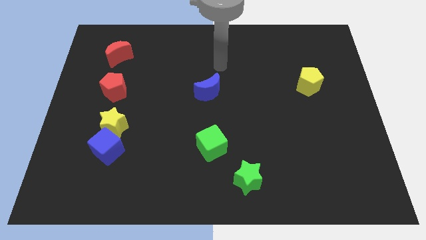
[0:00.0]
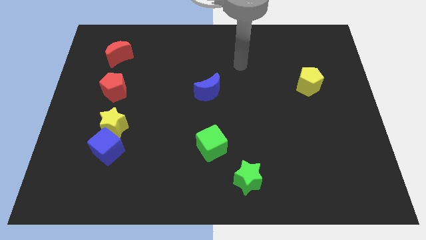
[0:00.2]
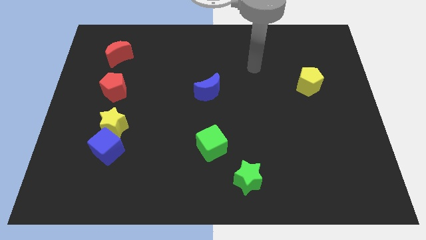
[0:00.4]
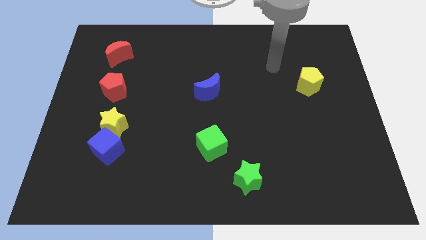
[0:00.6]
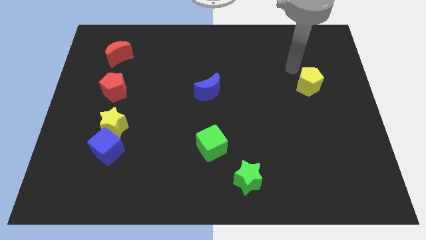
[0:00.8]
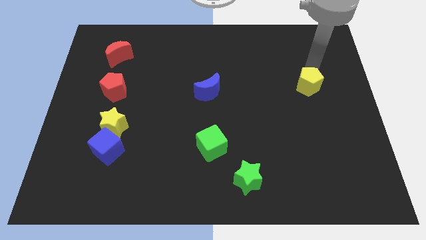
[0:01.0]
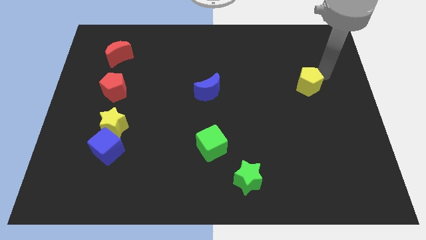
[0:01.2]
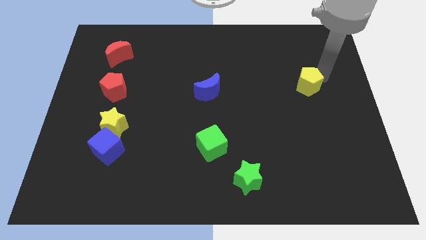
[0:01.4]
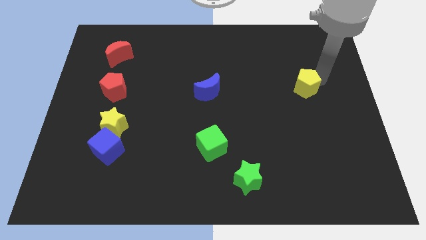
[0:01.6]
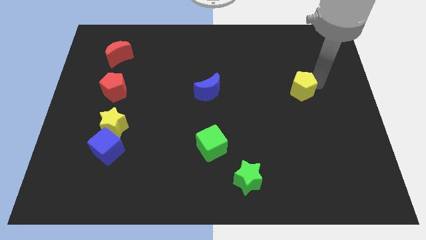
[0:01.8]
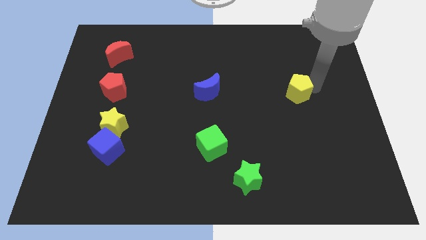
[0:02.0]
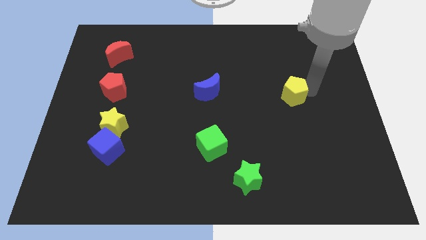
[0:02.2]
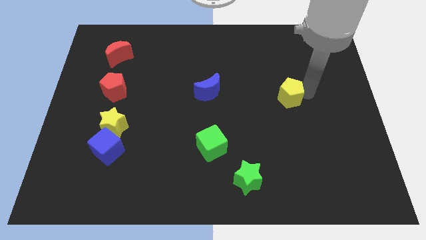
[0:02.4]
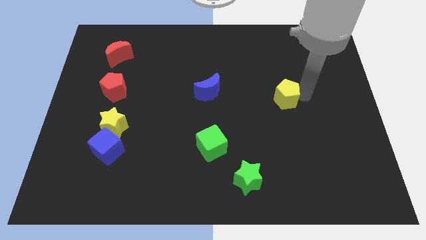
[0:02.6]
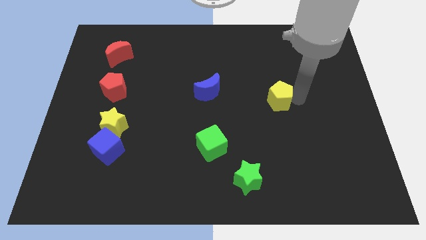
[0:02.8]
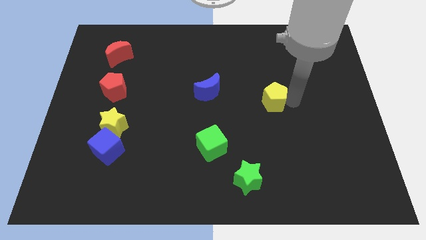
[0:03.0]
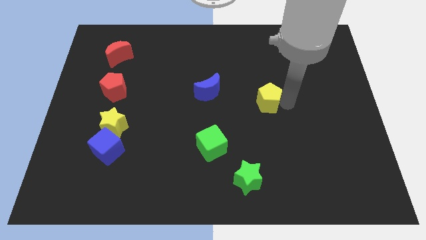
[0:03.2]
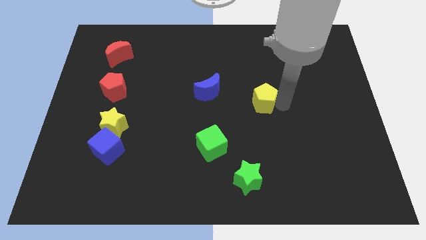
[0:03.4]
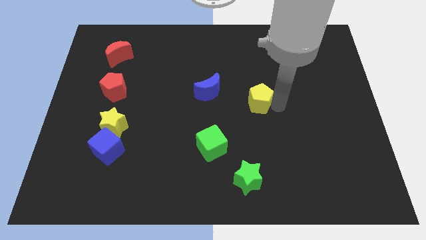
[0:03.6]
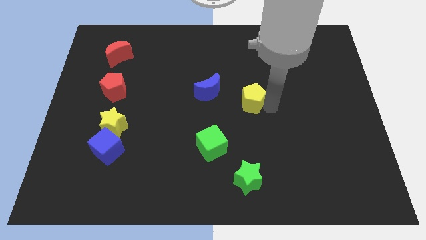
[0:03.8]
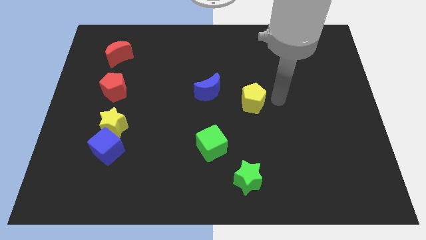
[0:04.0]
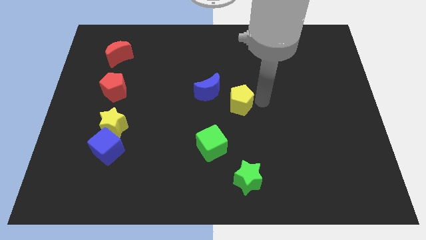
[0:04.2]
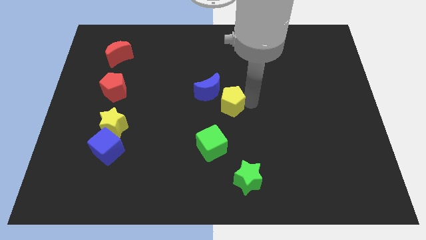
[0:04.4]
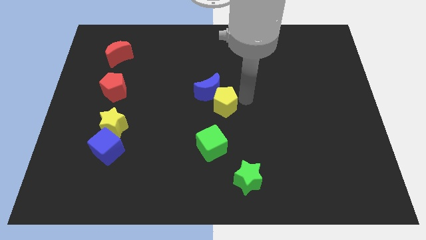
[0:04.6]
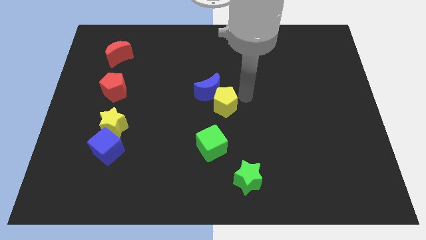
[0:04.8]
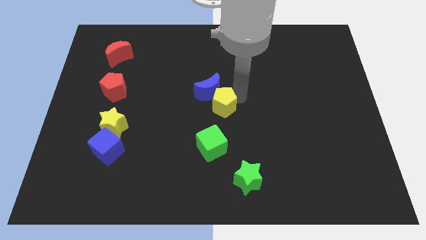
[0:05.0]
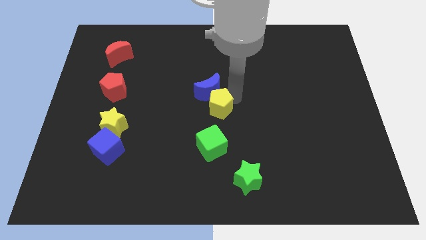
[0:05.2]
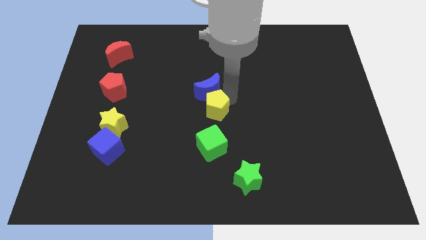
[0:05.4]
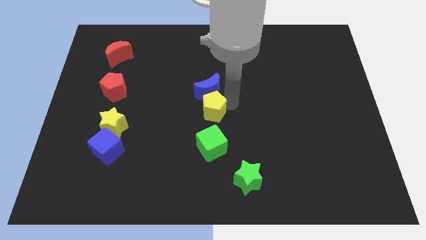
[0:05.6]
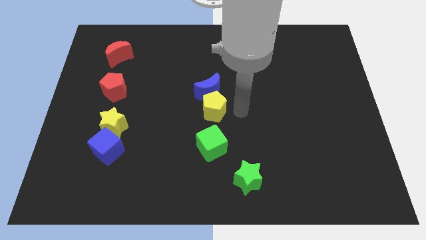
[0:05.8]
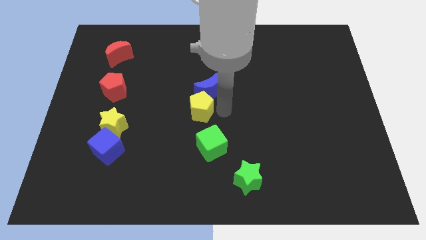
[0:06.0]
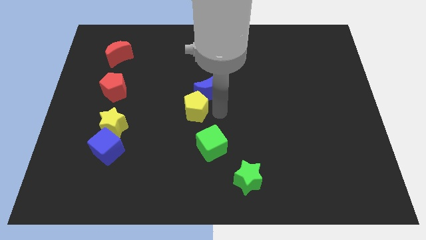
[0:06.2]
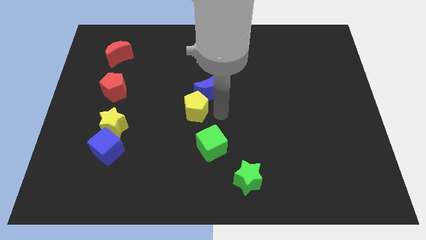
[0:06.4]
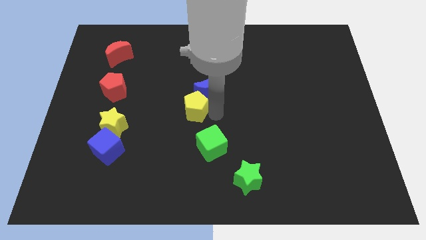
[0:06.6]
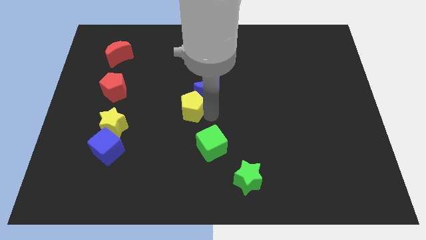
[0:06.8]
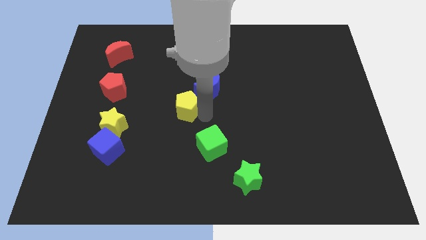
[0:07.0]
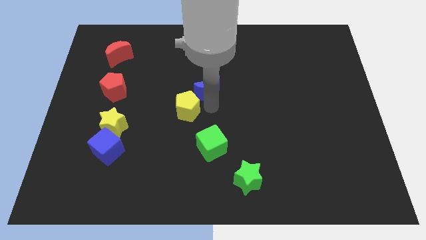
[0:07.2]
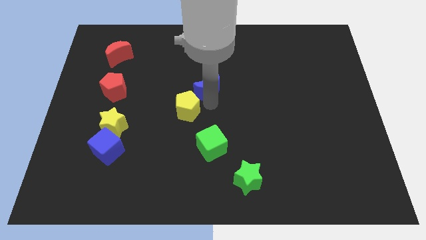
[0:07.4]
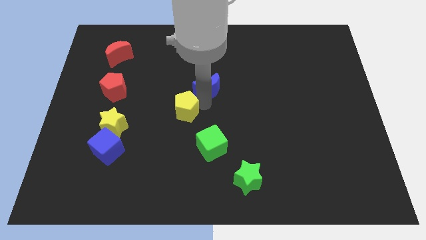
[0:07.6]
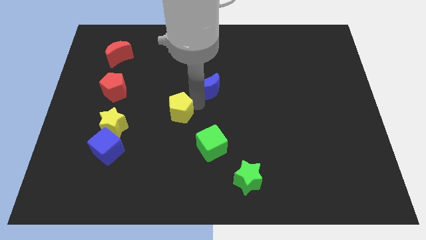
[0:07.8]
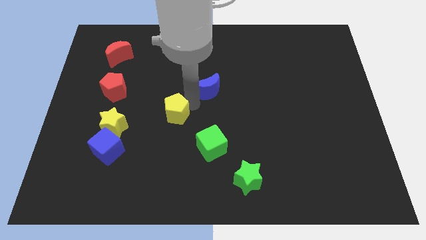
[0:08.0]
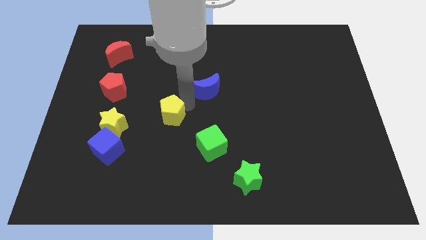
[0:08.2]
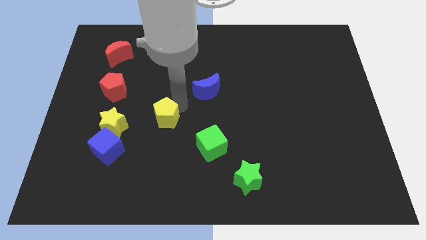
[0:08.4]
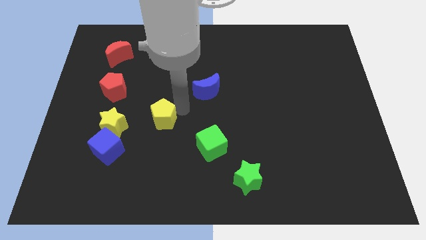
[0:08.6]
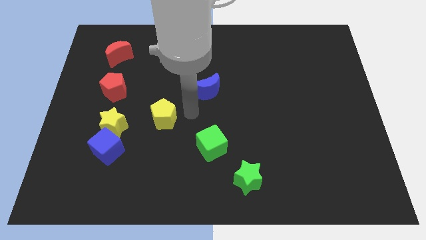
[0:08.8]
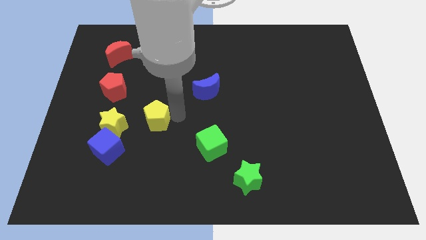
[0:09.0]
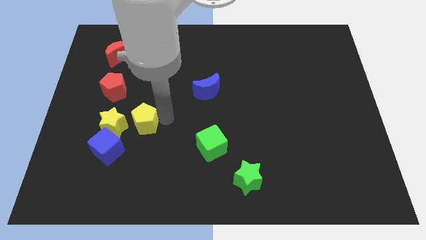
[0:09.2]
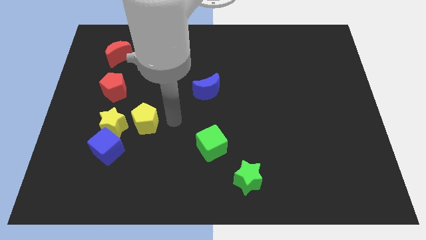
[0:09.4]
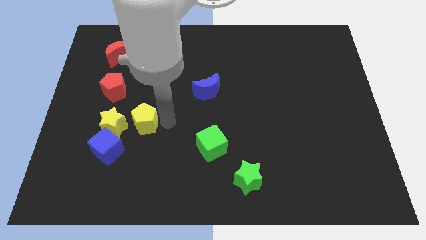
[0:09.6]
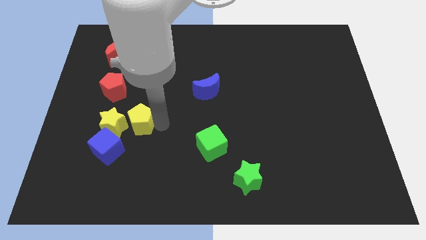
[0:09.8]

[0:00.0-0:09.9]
put the yellow pentagon to the yellow star

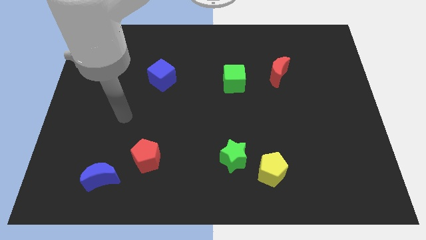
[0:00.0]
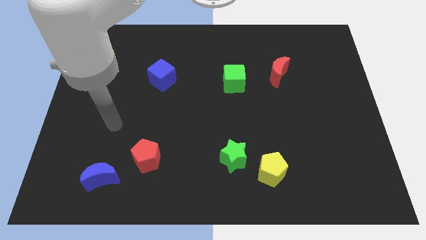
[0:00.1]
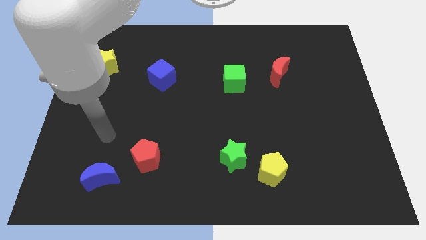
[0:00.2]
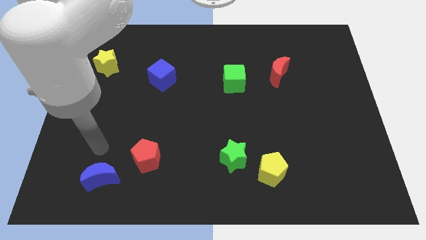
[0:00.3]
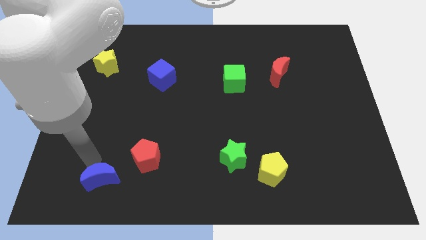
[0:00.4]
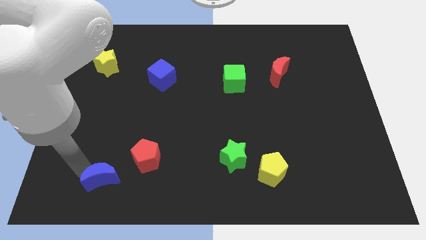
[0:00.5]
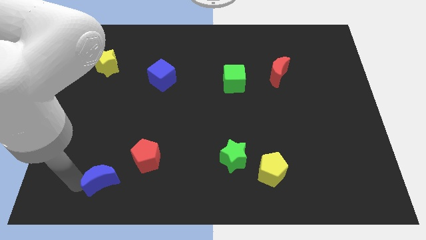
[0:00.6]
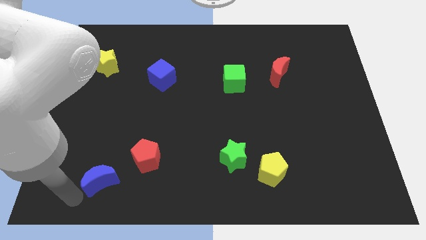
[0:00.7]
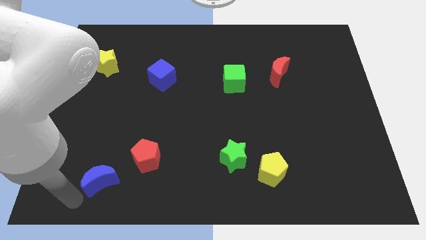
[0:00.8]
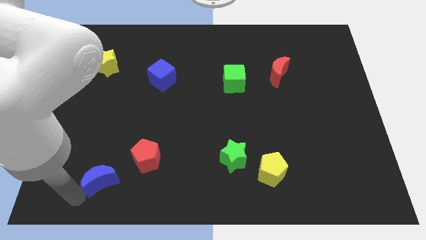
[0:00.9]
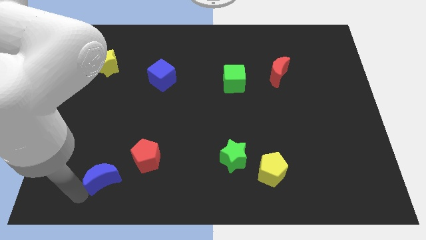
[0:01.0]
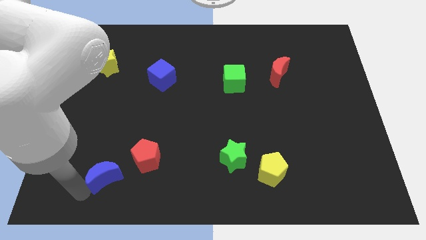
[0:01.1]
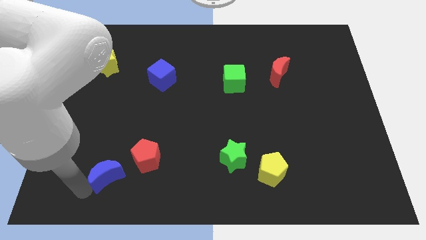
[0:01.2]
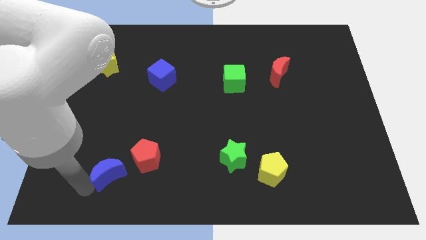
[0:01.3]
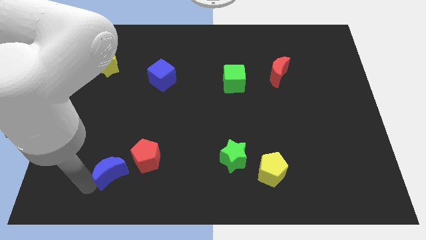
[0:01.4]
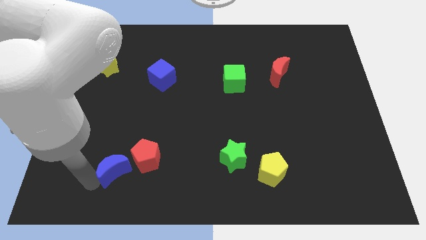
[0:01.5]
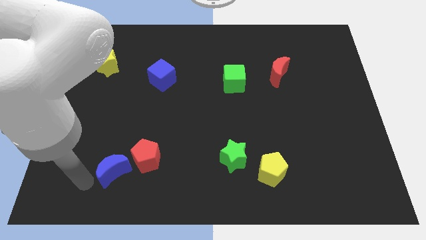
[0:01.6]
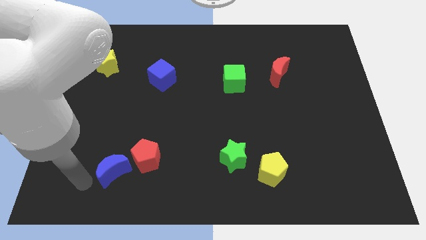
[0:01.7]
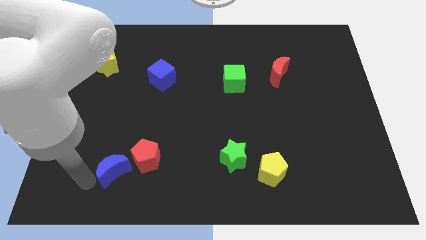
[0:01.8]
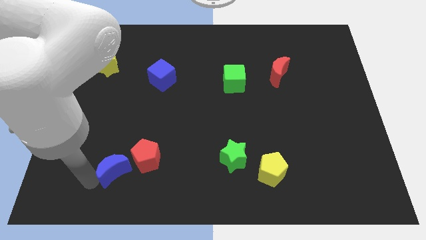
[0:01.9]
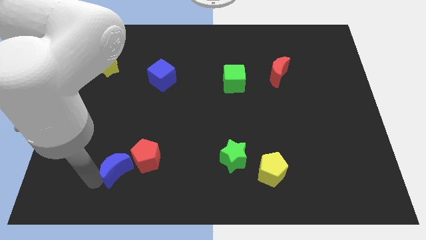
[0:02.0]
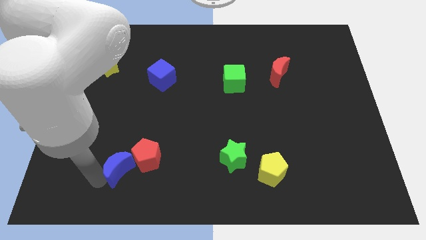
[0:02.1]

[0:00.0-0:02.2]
push the blue moon towards the red pentagon
